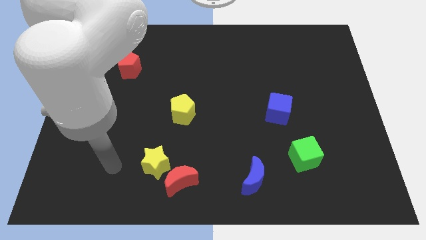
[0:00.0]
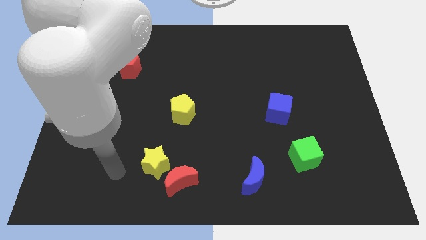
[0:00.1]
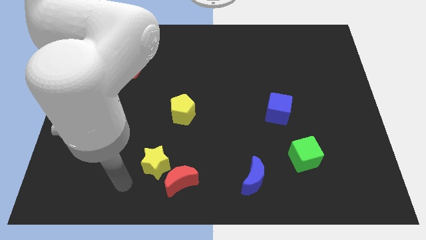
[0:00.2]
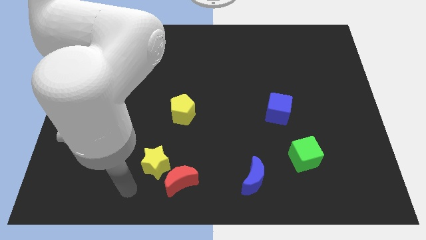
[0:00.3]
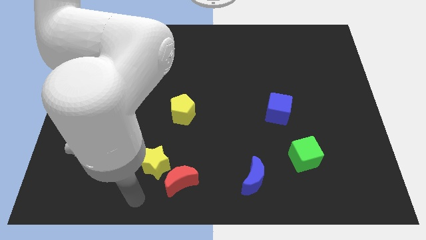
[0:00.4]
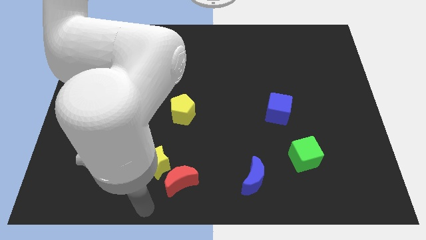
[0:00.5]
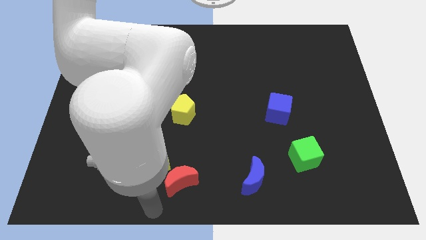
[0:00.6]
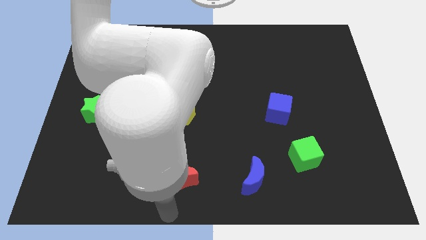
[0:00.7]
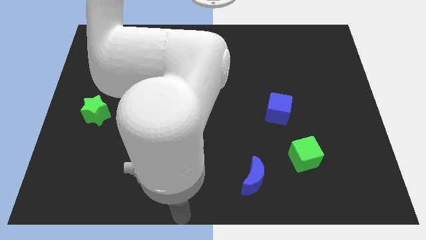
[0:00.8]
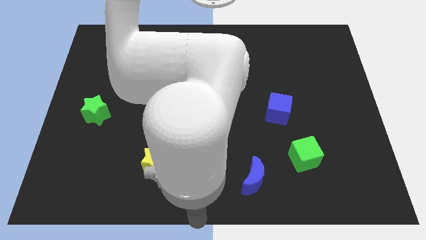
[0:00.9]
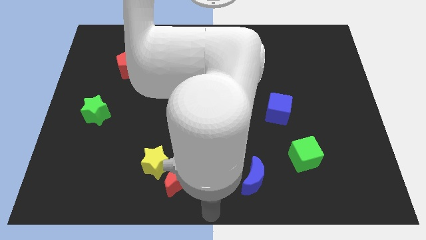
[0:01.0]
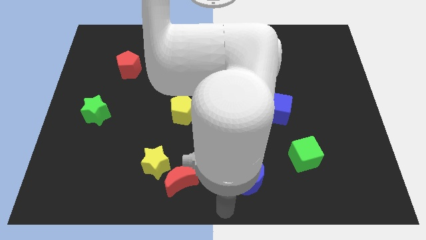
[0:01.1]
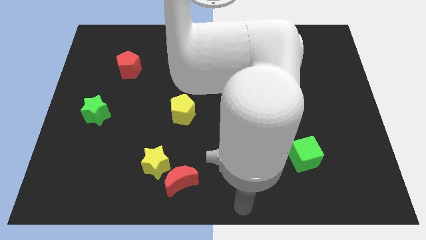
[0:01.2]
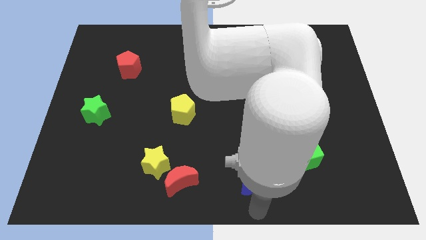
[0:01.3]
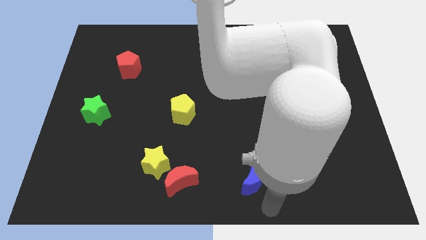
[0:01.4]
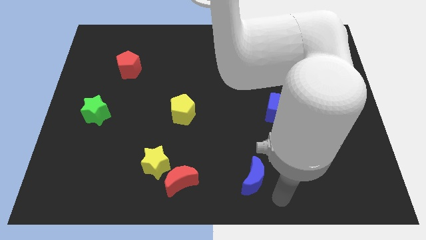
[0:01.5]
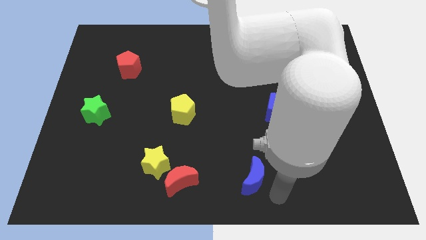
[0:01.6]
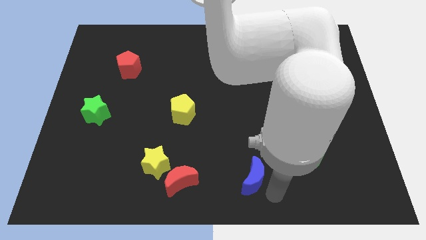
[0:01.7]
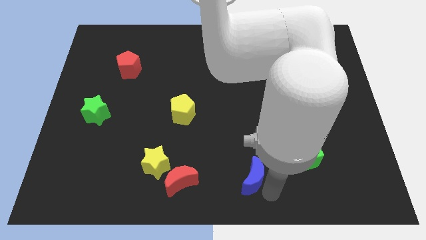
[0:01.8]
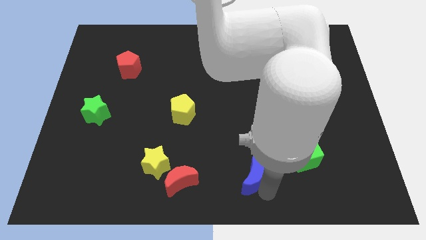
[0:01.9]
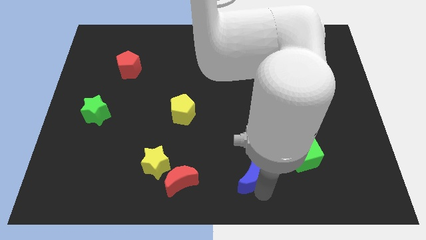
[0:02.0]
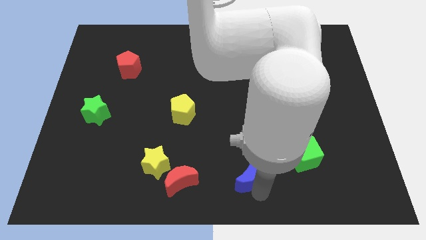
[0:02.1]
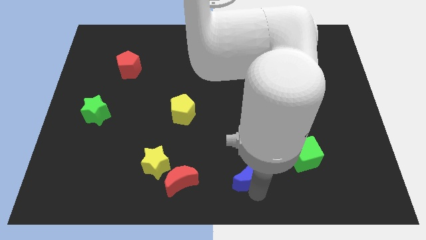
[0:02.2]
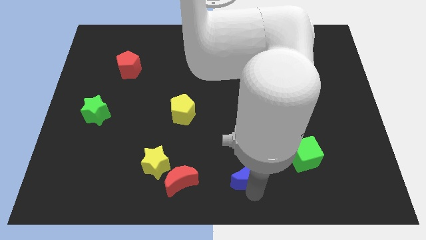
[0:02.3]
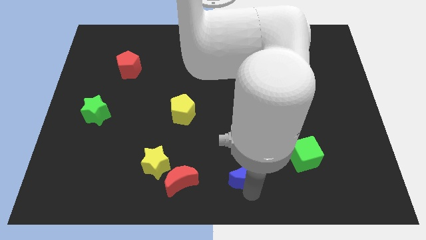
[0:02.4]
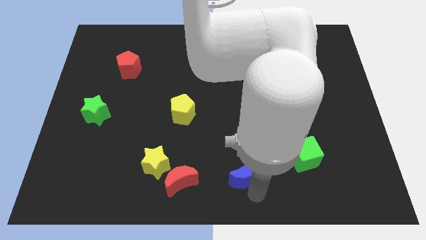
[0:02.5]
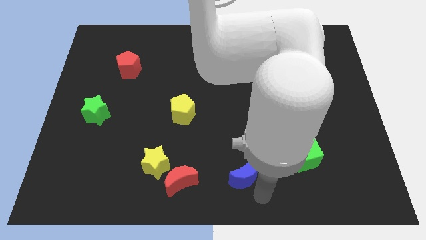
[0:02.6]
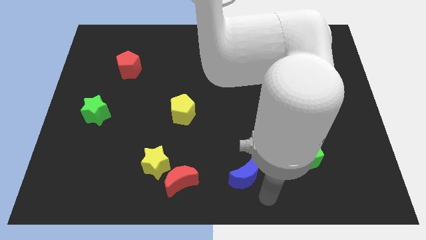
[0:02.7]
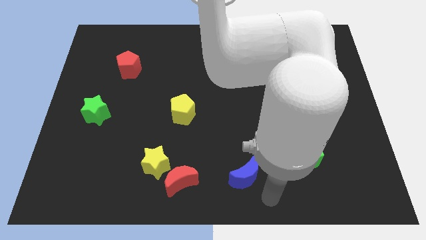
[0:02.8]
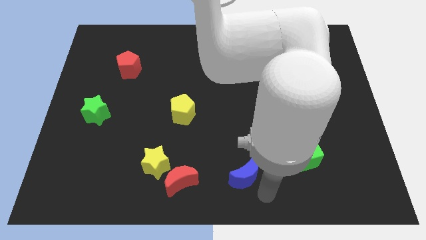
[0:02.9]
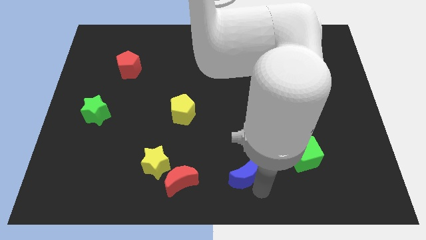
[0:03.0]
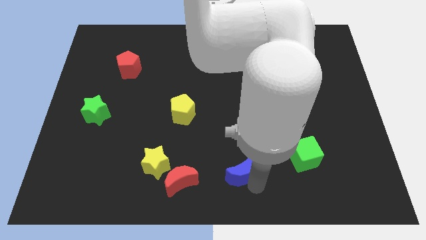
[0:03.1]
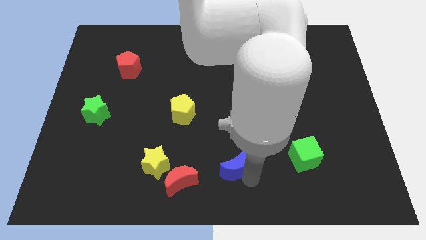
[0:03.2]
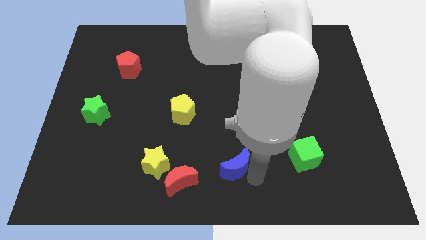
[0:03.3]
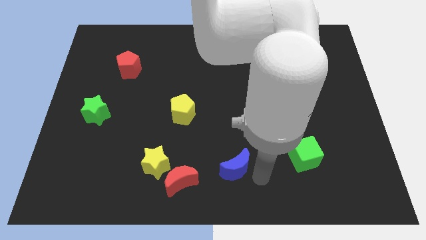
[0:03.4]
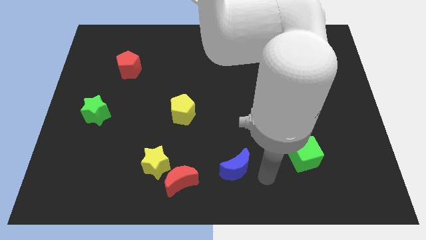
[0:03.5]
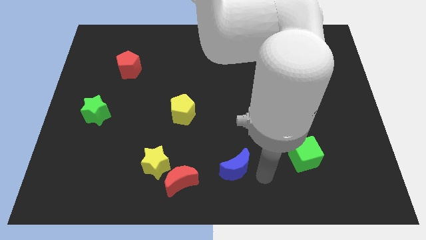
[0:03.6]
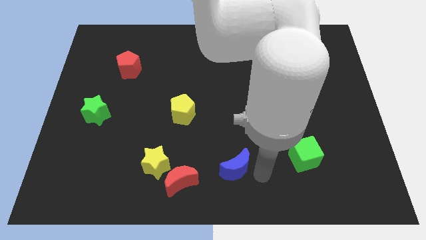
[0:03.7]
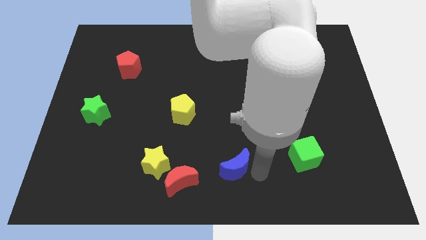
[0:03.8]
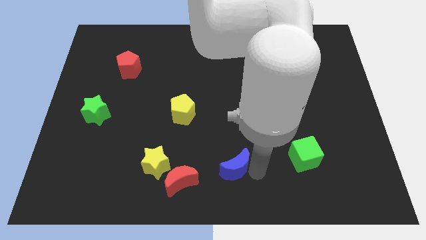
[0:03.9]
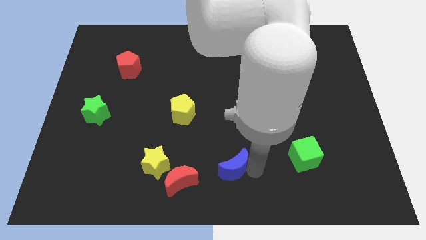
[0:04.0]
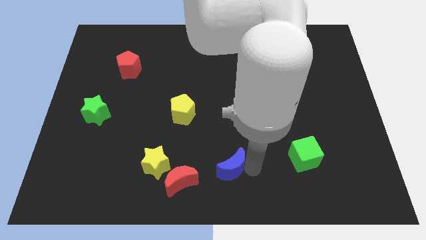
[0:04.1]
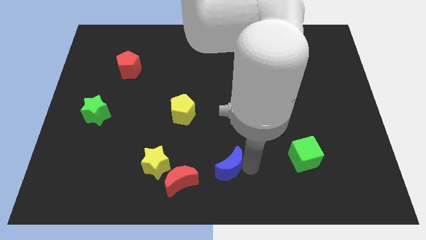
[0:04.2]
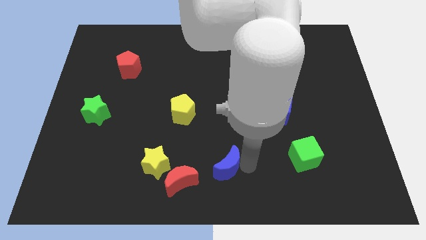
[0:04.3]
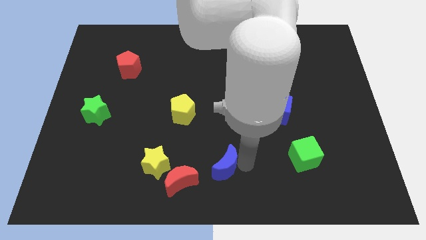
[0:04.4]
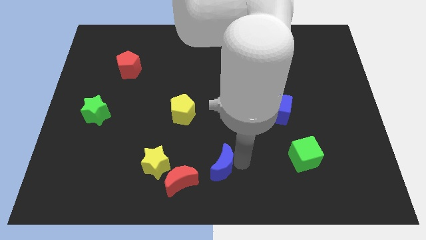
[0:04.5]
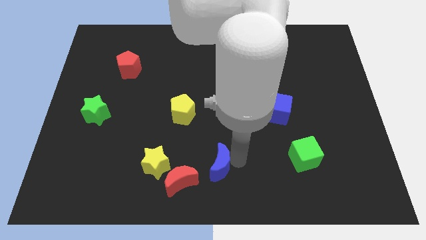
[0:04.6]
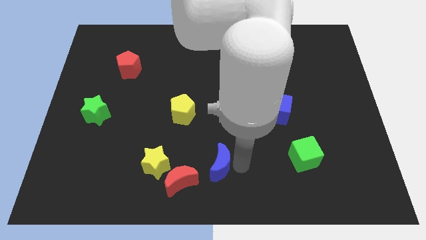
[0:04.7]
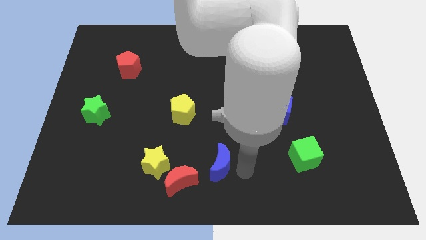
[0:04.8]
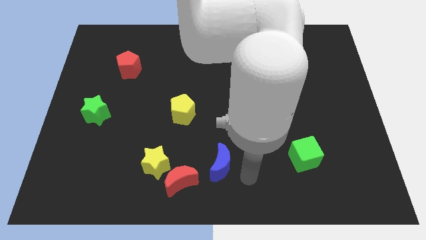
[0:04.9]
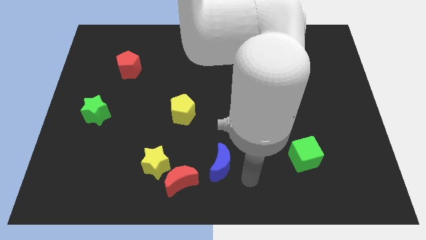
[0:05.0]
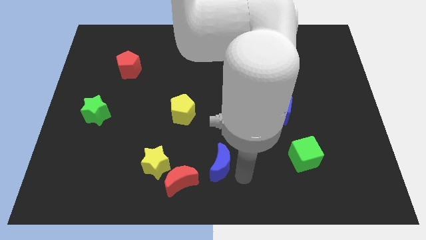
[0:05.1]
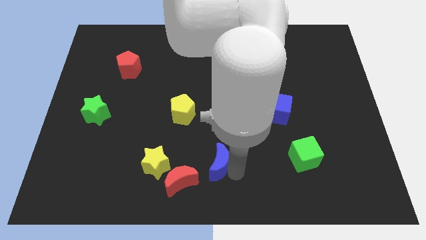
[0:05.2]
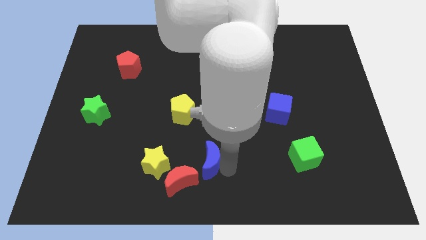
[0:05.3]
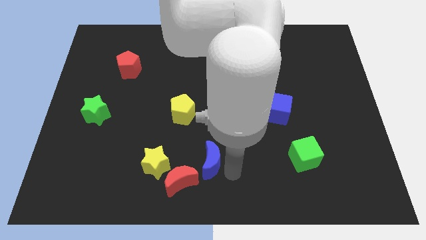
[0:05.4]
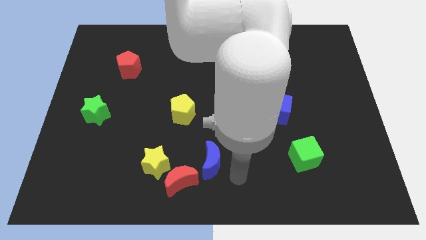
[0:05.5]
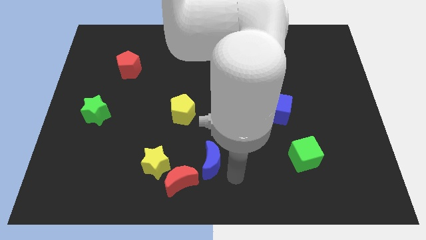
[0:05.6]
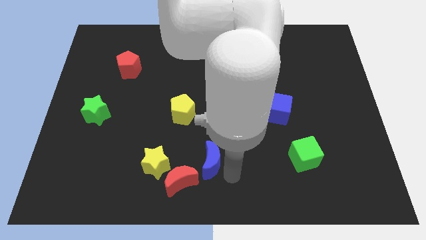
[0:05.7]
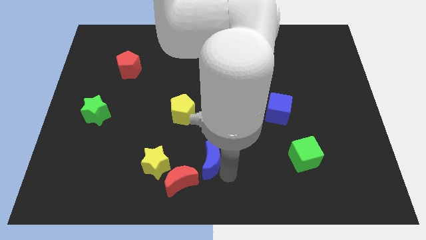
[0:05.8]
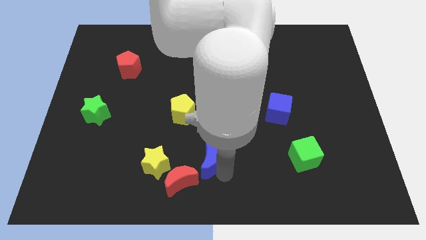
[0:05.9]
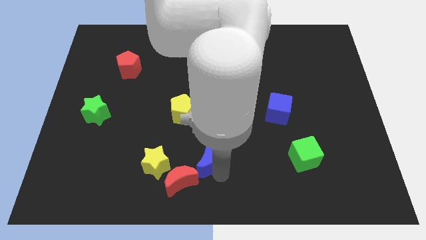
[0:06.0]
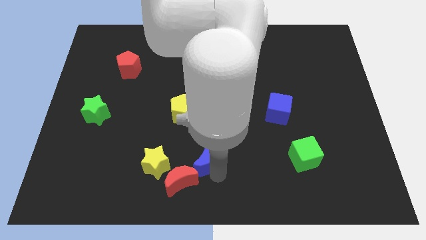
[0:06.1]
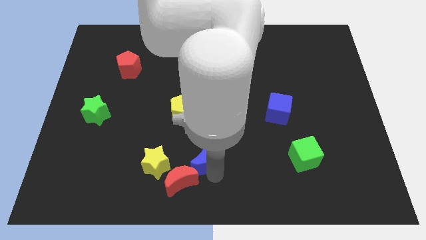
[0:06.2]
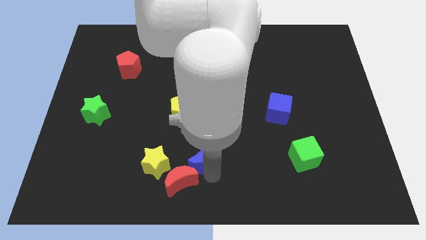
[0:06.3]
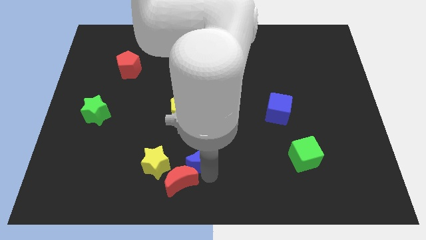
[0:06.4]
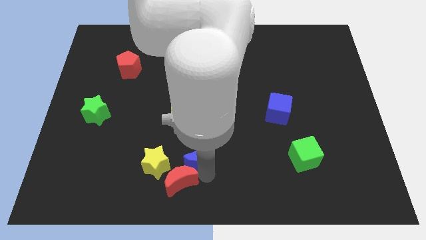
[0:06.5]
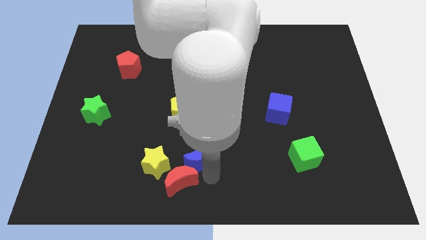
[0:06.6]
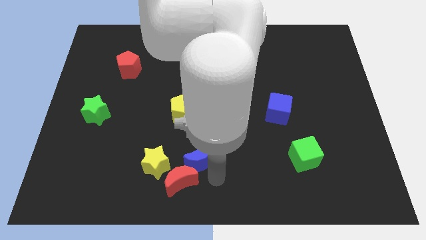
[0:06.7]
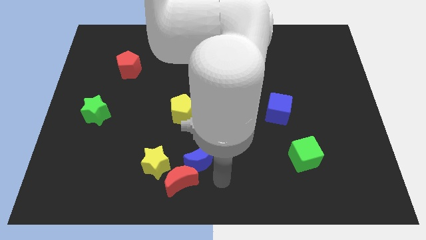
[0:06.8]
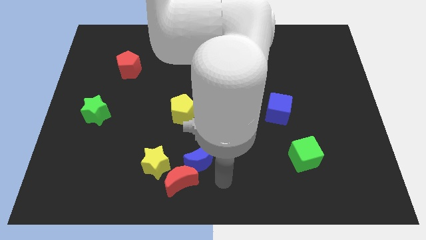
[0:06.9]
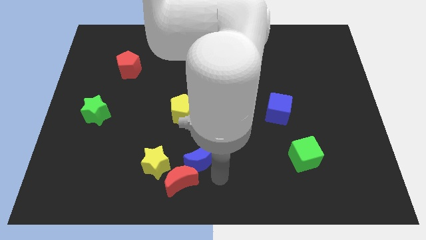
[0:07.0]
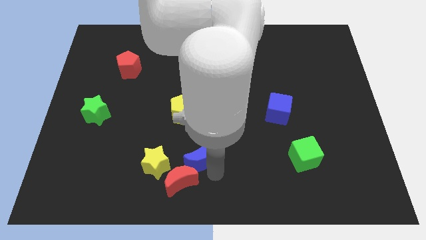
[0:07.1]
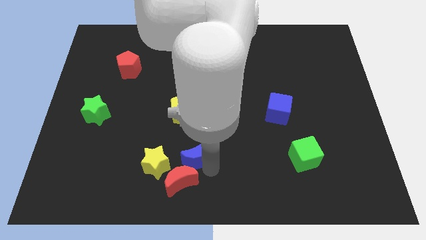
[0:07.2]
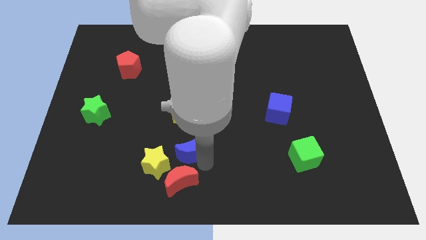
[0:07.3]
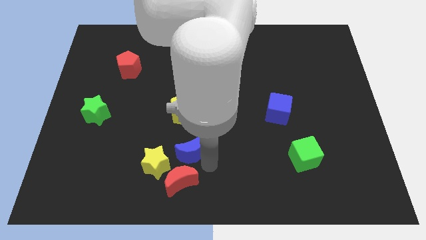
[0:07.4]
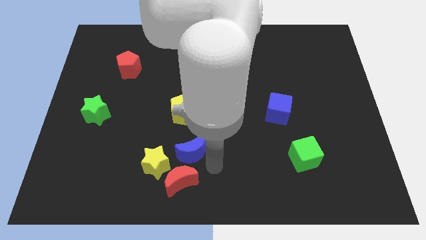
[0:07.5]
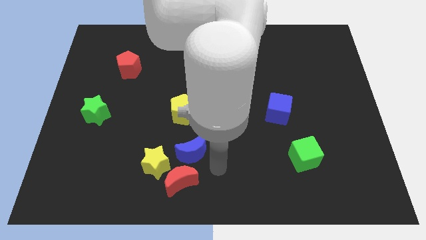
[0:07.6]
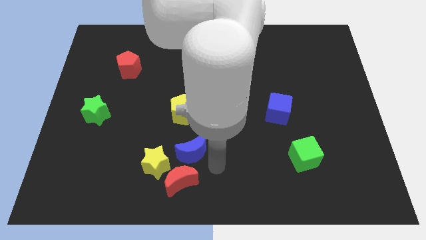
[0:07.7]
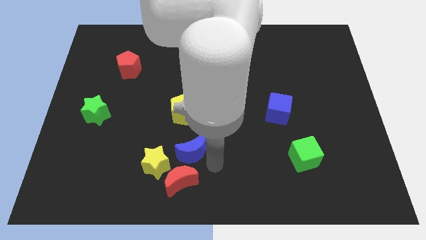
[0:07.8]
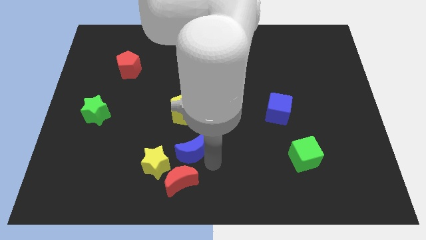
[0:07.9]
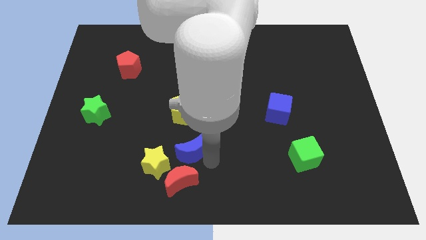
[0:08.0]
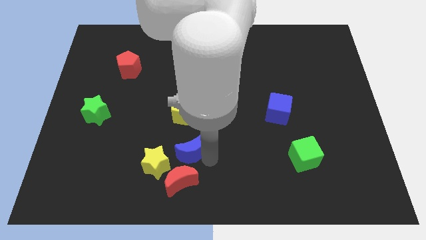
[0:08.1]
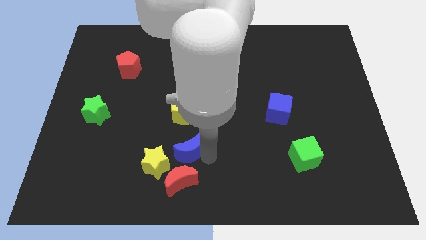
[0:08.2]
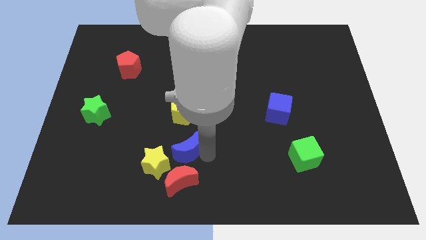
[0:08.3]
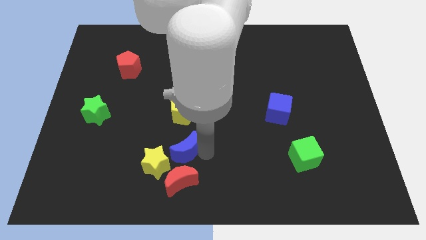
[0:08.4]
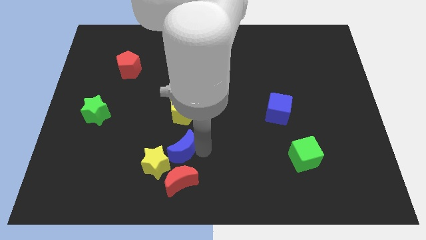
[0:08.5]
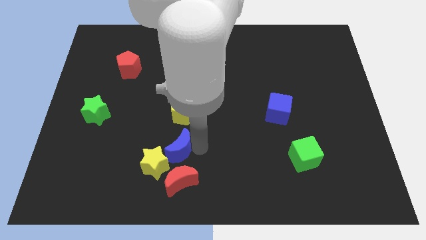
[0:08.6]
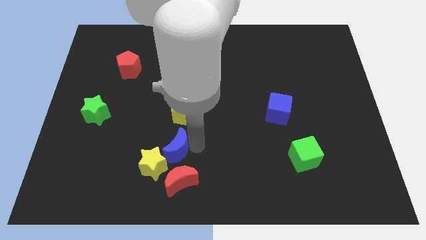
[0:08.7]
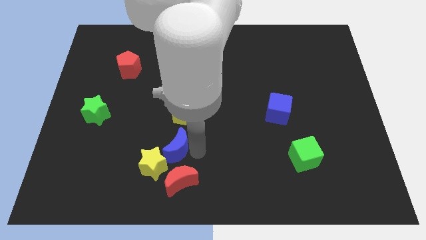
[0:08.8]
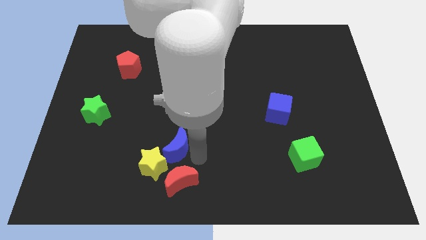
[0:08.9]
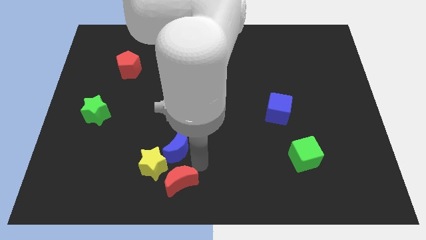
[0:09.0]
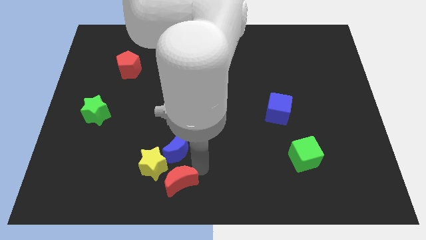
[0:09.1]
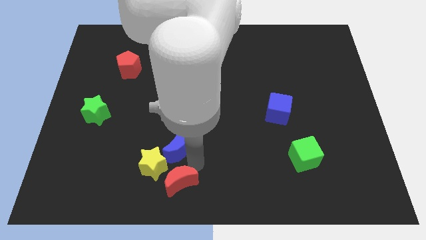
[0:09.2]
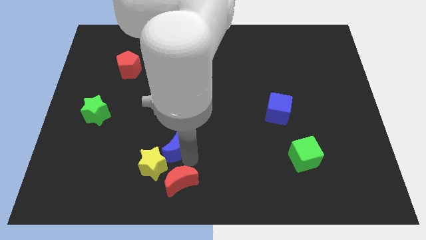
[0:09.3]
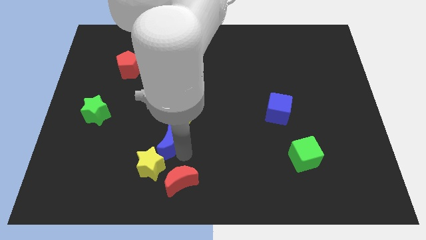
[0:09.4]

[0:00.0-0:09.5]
slide the blue moon to the bottom left side of the yellow pentagon
